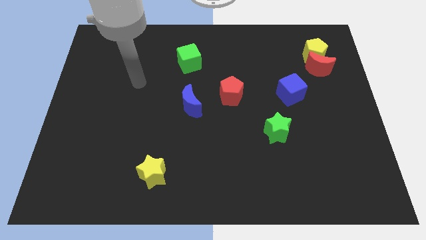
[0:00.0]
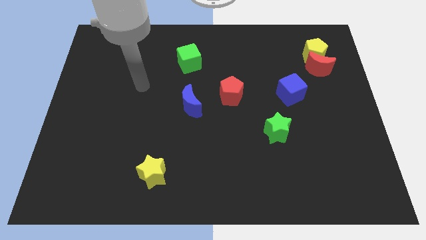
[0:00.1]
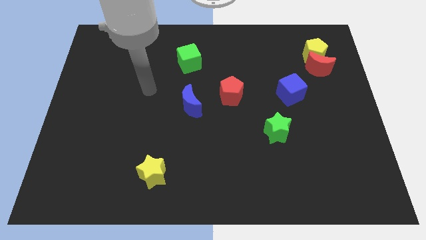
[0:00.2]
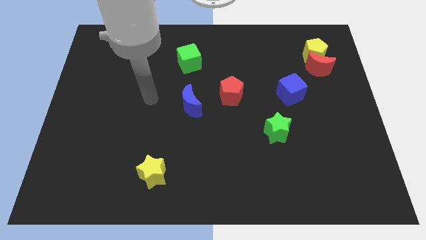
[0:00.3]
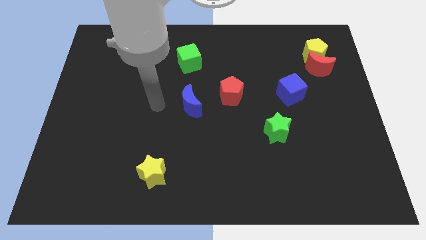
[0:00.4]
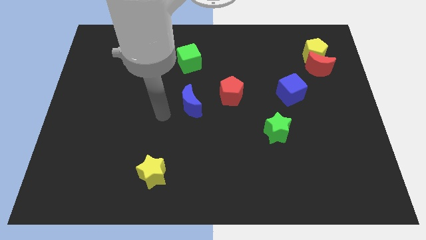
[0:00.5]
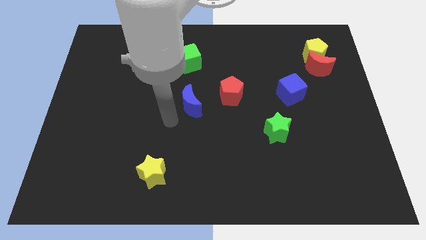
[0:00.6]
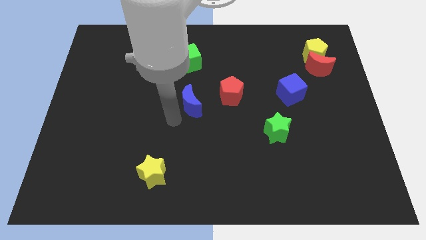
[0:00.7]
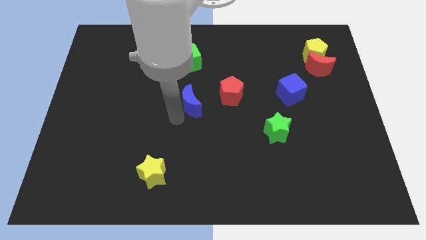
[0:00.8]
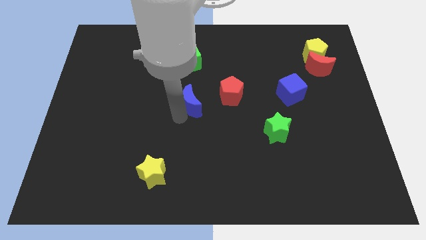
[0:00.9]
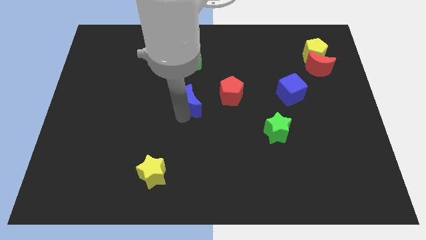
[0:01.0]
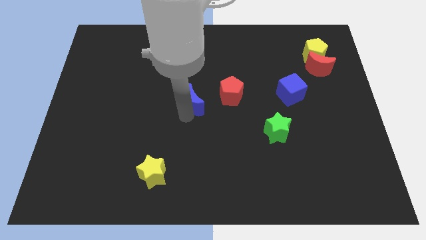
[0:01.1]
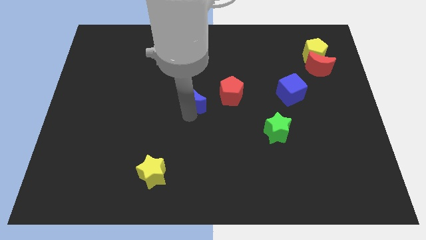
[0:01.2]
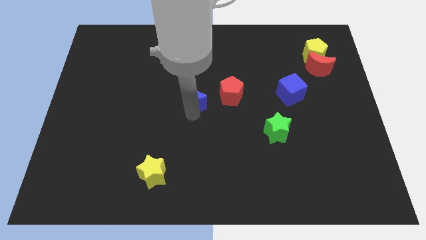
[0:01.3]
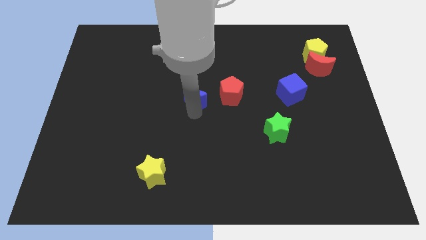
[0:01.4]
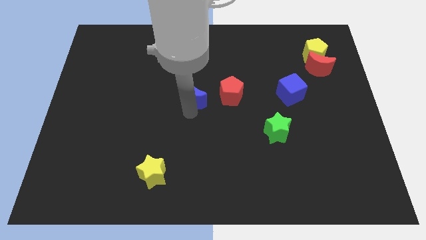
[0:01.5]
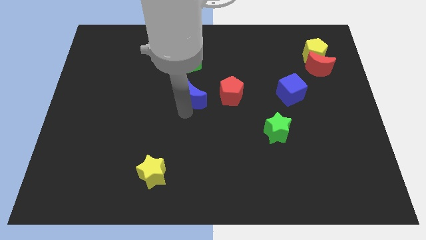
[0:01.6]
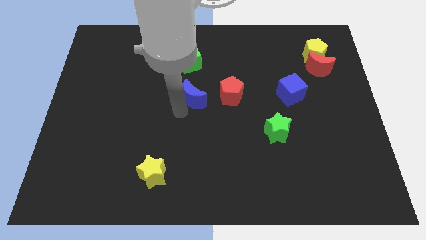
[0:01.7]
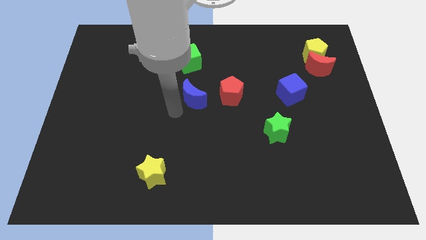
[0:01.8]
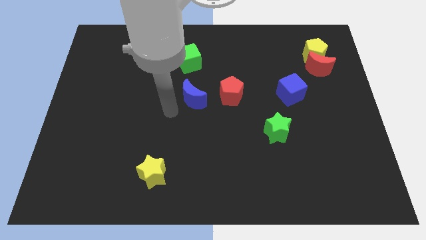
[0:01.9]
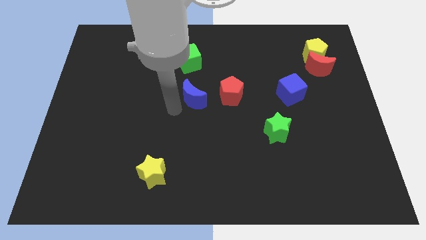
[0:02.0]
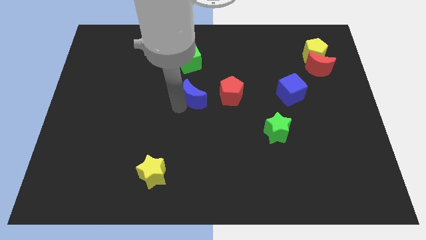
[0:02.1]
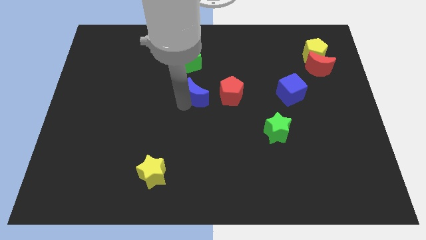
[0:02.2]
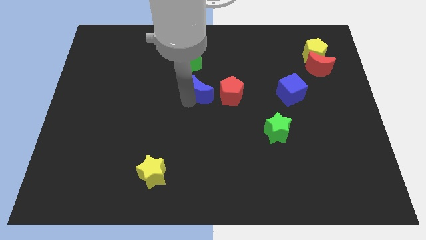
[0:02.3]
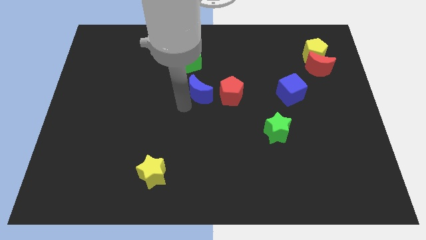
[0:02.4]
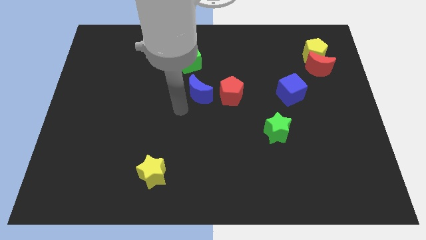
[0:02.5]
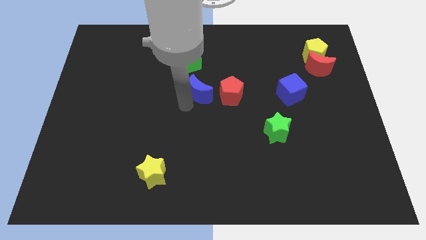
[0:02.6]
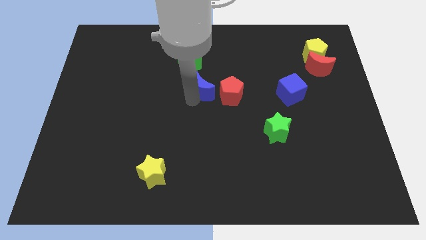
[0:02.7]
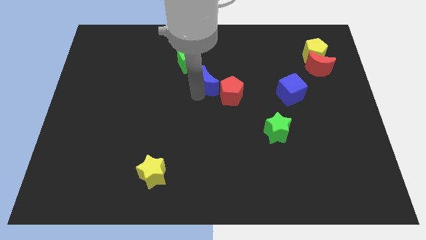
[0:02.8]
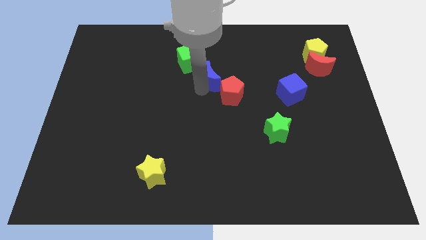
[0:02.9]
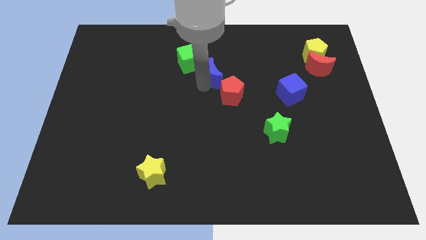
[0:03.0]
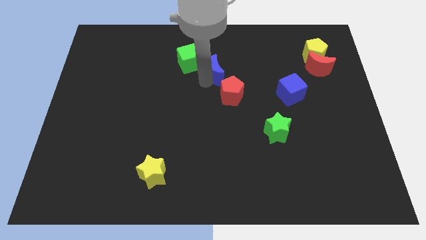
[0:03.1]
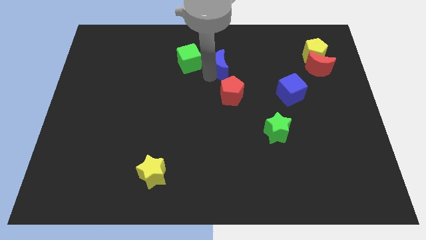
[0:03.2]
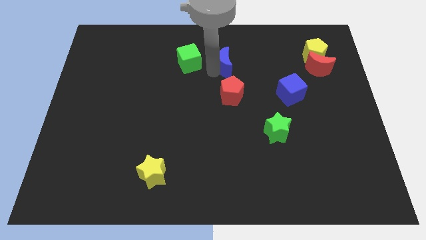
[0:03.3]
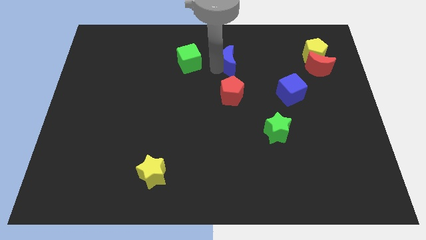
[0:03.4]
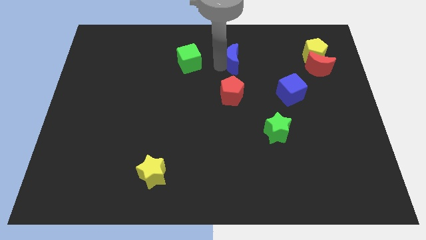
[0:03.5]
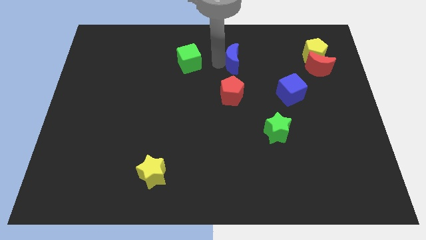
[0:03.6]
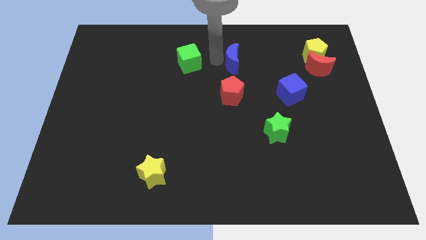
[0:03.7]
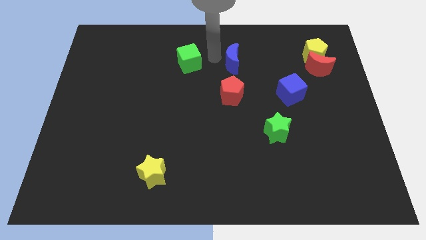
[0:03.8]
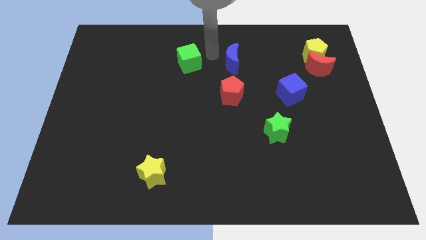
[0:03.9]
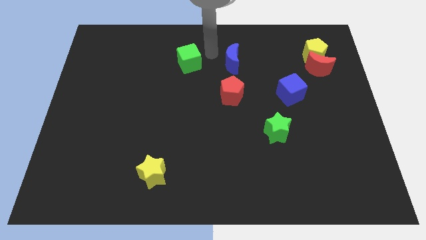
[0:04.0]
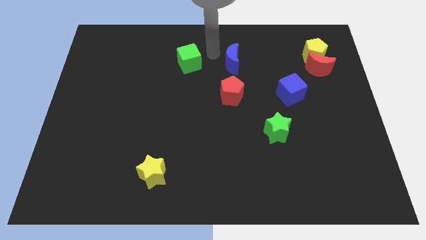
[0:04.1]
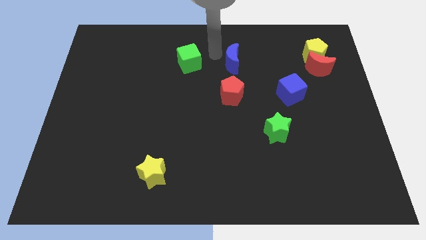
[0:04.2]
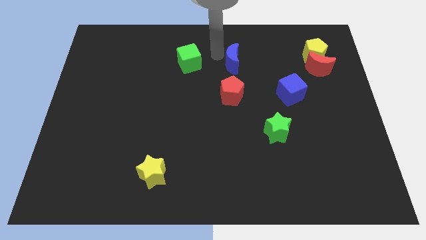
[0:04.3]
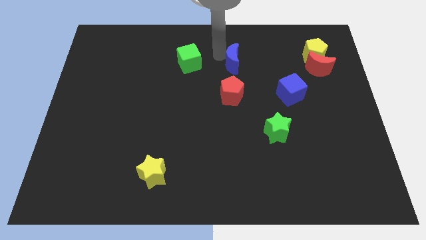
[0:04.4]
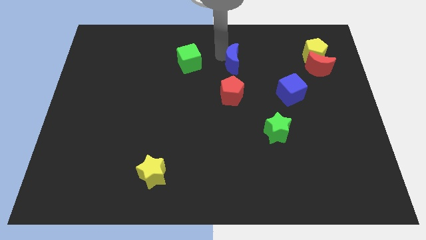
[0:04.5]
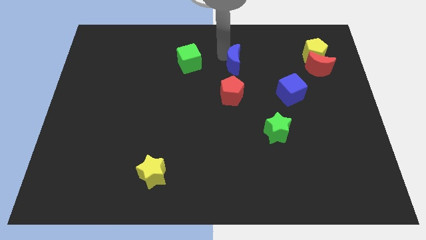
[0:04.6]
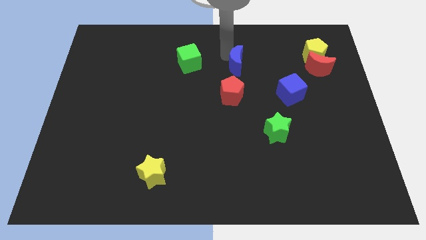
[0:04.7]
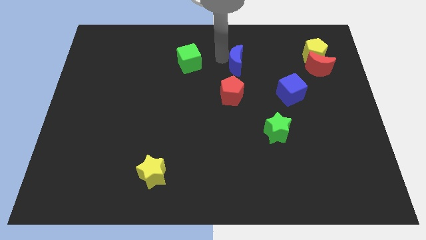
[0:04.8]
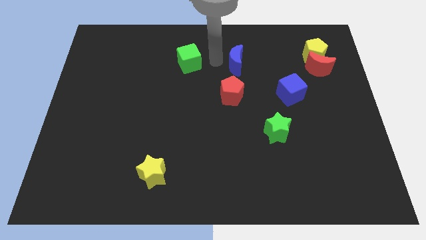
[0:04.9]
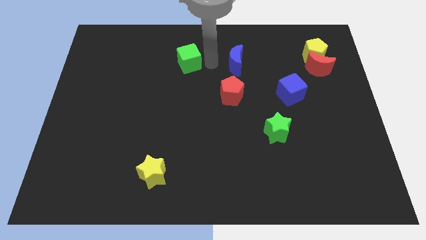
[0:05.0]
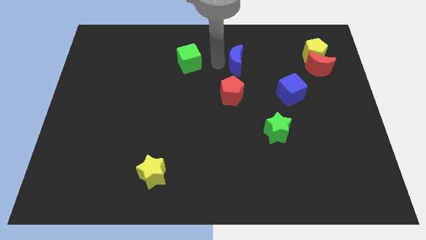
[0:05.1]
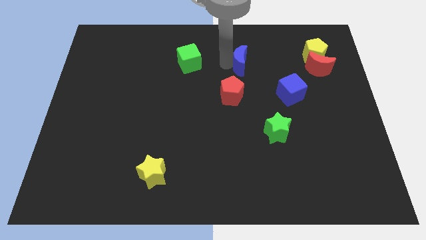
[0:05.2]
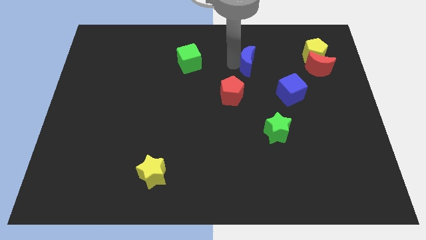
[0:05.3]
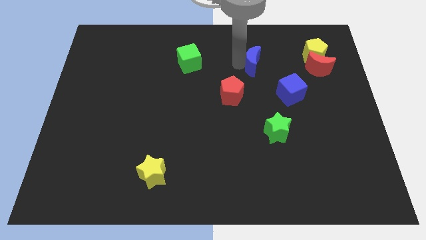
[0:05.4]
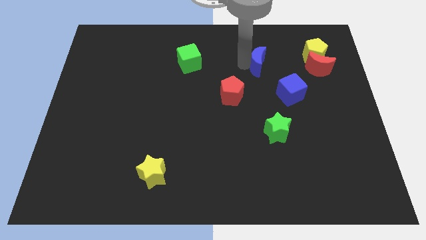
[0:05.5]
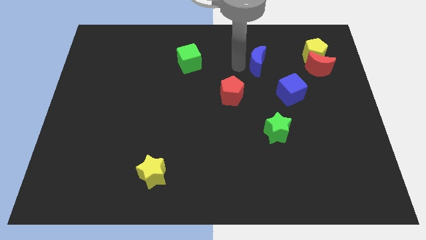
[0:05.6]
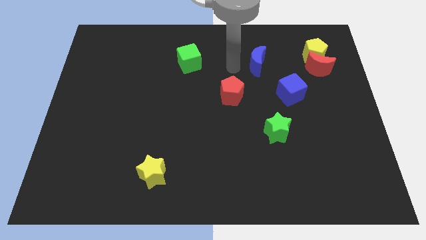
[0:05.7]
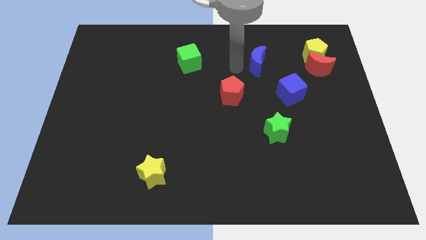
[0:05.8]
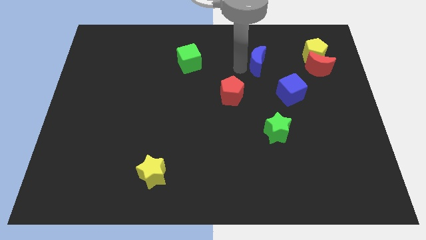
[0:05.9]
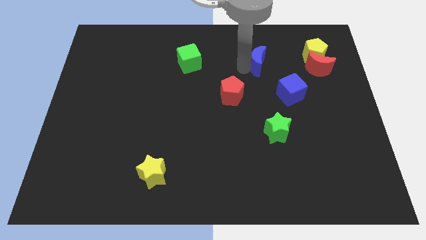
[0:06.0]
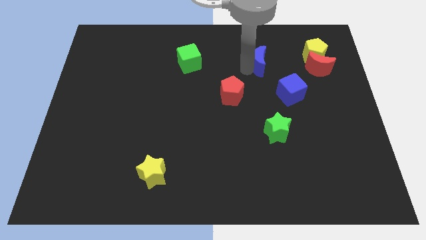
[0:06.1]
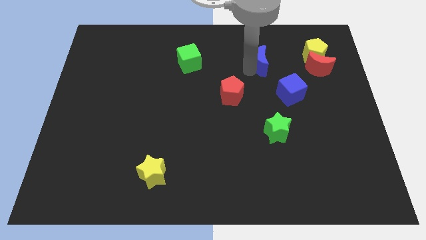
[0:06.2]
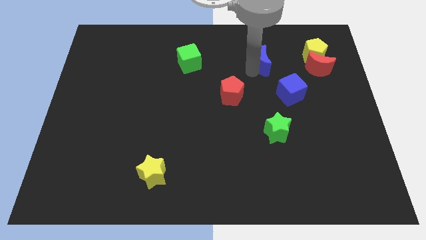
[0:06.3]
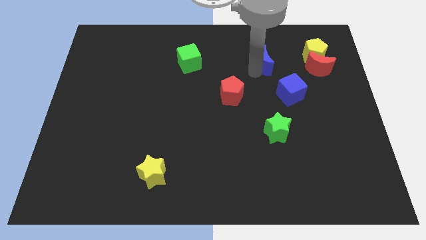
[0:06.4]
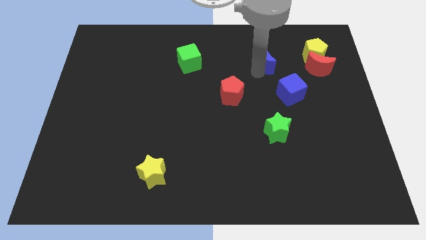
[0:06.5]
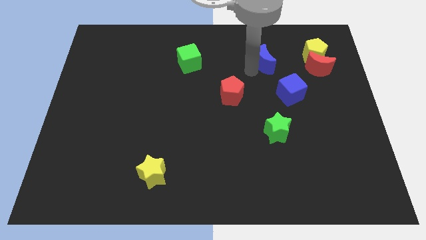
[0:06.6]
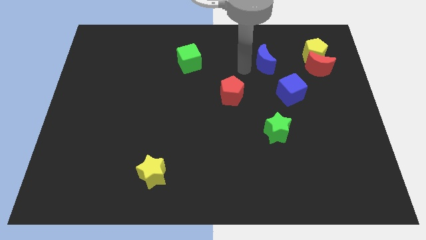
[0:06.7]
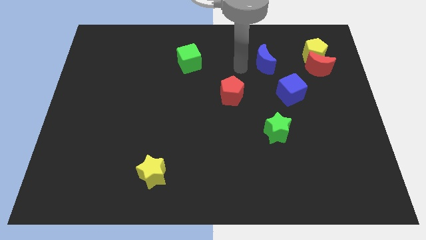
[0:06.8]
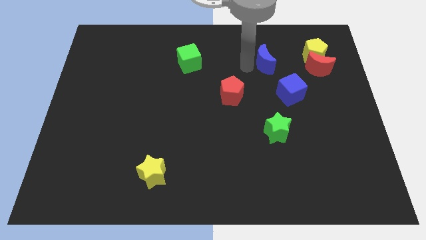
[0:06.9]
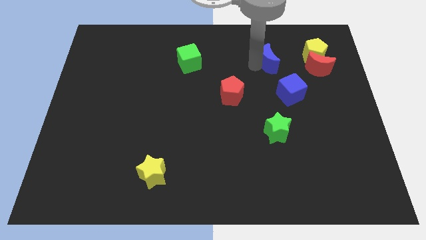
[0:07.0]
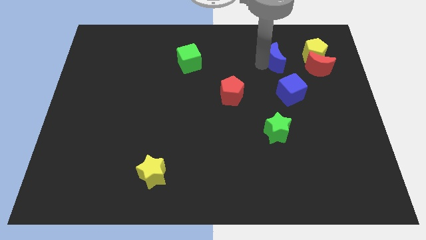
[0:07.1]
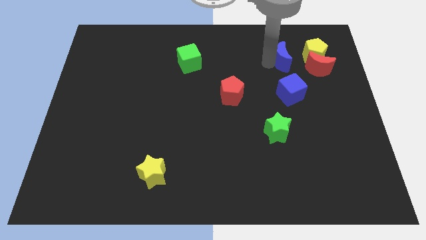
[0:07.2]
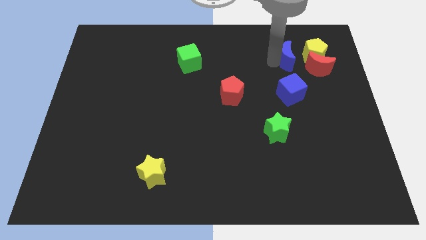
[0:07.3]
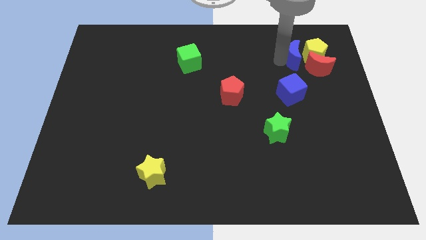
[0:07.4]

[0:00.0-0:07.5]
move the blue moon close to the yellow pentagon
